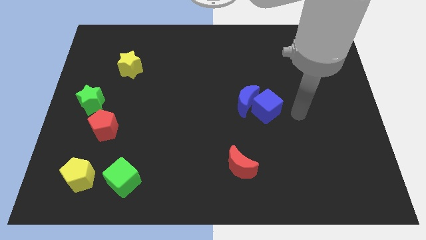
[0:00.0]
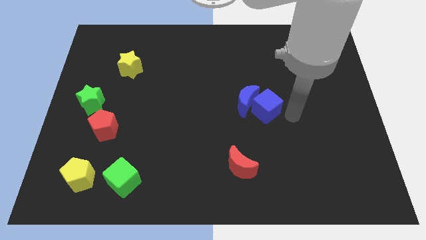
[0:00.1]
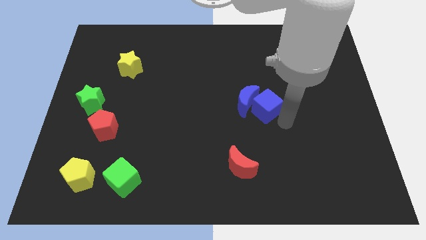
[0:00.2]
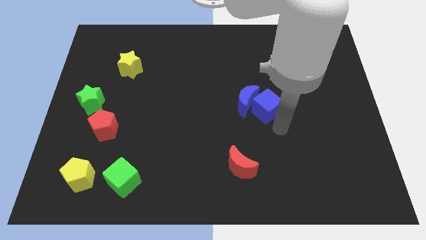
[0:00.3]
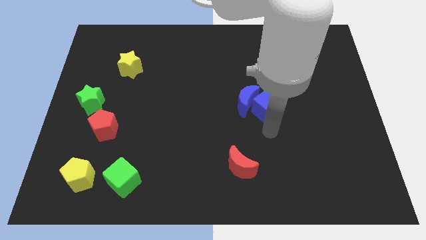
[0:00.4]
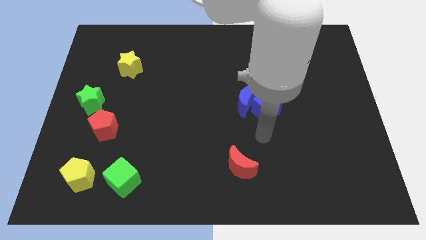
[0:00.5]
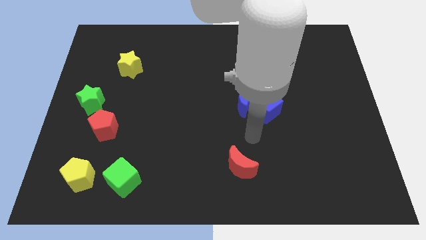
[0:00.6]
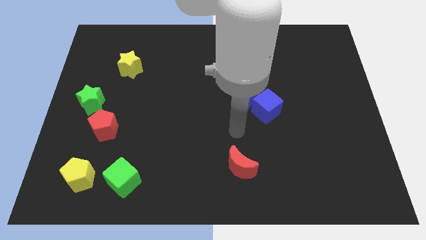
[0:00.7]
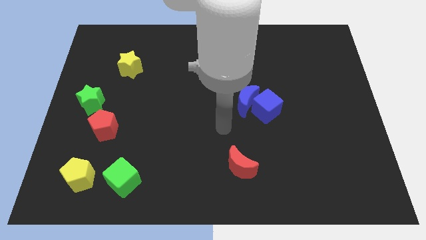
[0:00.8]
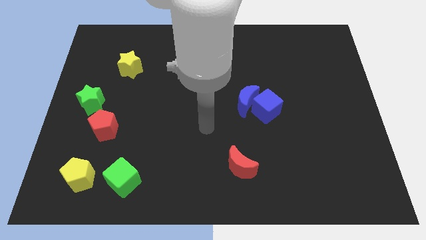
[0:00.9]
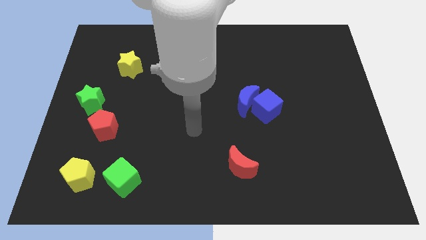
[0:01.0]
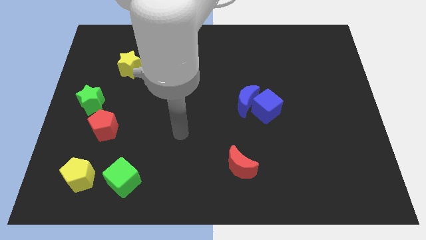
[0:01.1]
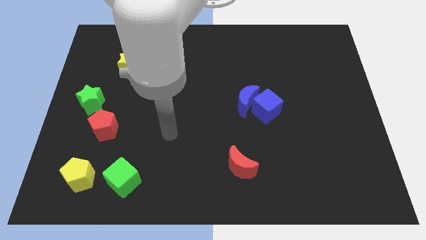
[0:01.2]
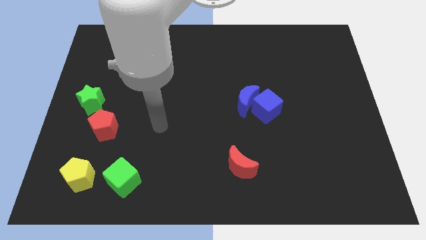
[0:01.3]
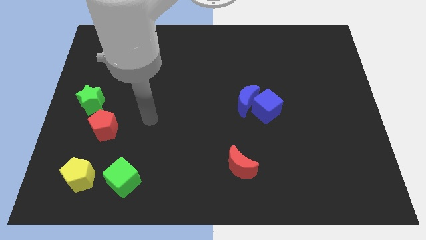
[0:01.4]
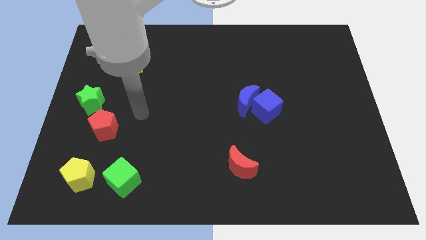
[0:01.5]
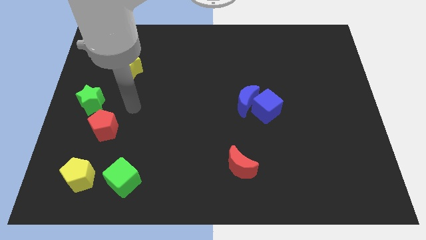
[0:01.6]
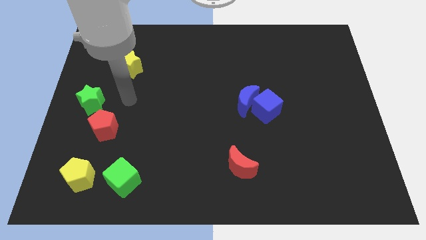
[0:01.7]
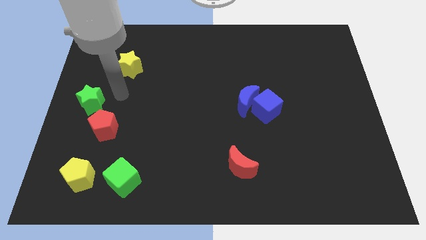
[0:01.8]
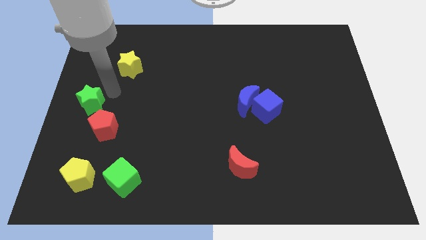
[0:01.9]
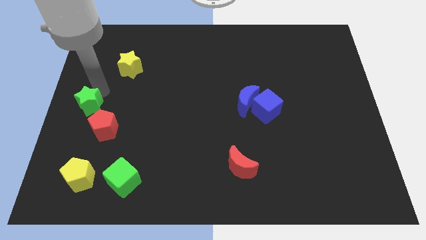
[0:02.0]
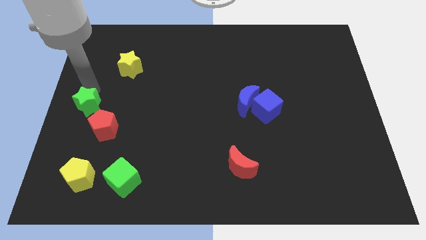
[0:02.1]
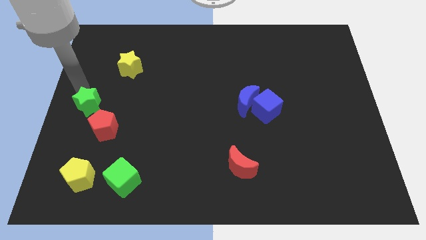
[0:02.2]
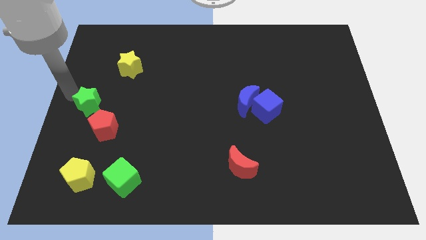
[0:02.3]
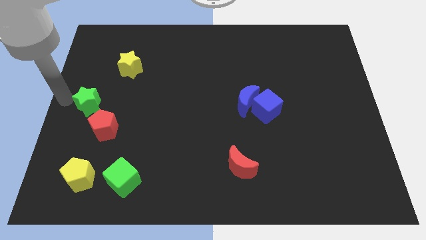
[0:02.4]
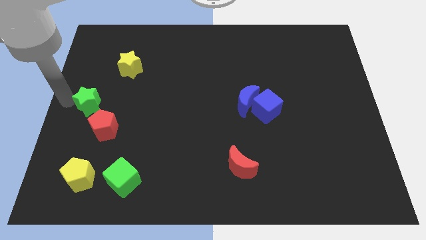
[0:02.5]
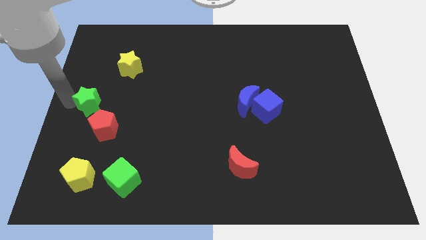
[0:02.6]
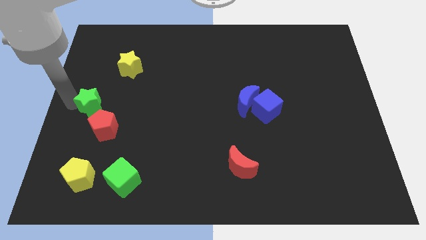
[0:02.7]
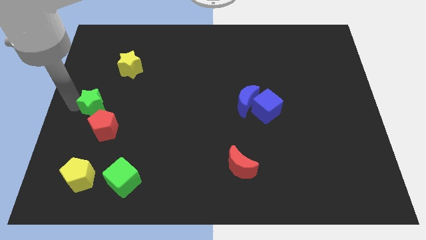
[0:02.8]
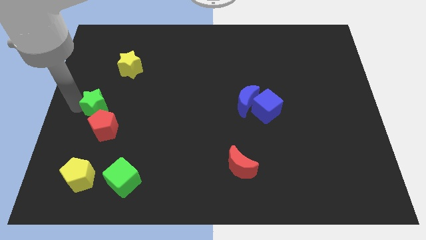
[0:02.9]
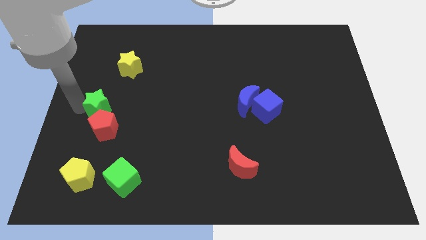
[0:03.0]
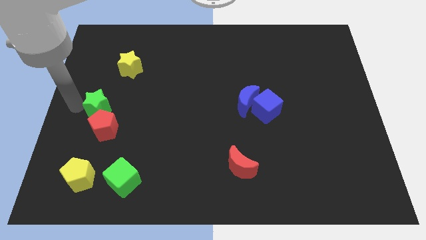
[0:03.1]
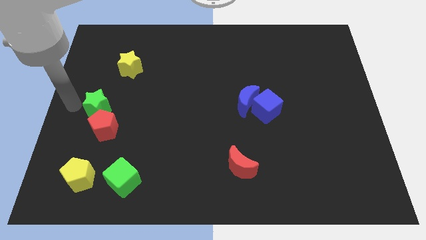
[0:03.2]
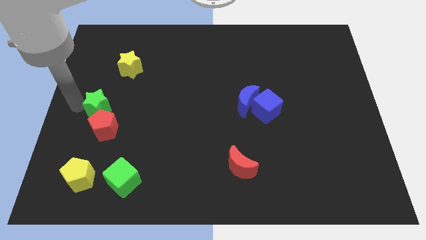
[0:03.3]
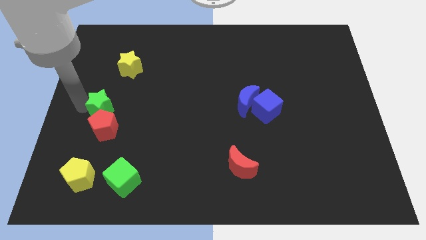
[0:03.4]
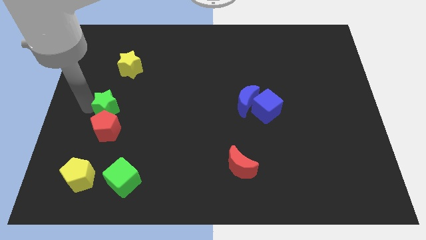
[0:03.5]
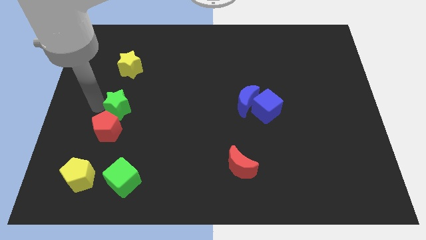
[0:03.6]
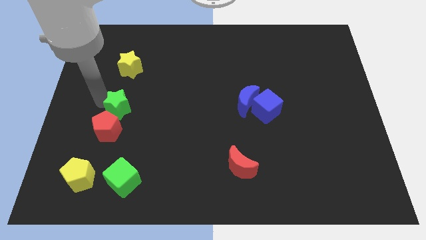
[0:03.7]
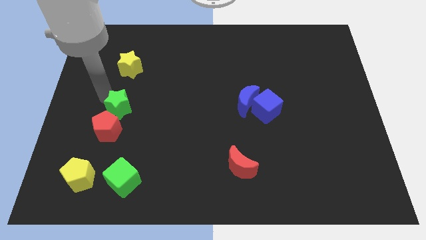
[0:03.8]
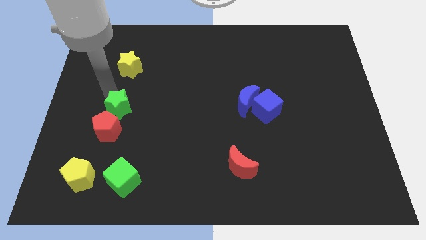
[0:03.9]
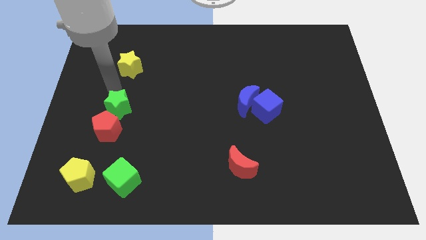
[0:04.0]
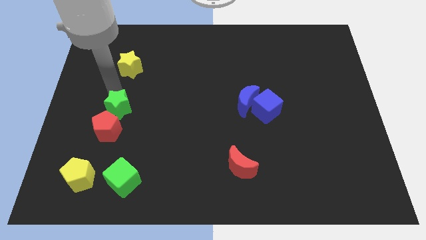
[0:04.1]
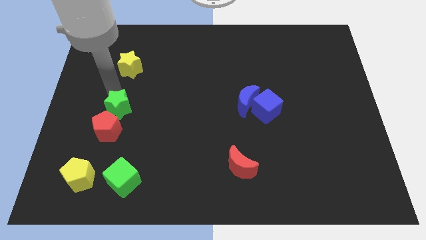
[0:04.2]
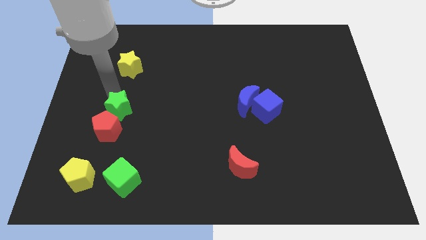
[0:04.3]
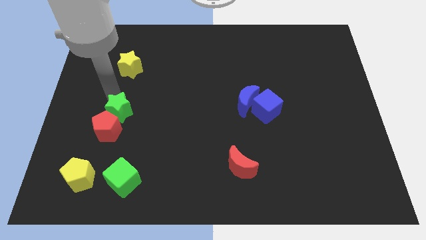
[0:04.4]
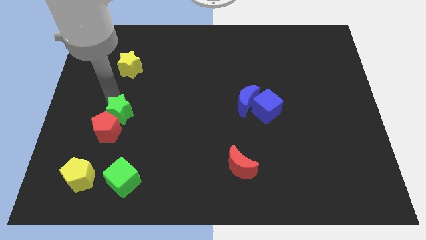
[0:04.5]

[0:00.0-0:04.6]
push the green star somewhat downwards and right diagonally

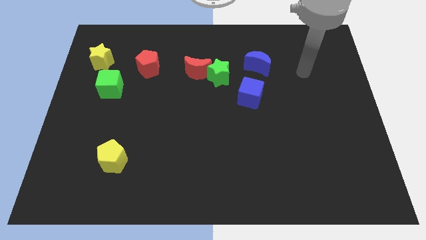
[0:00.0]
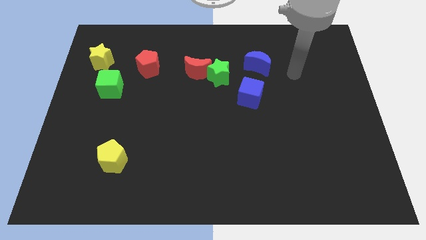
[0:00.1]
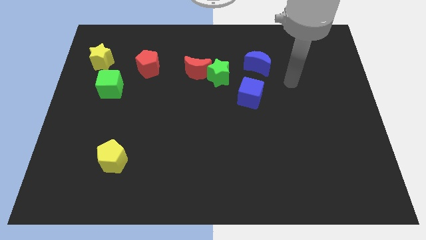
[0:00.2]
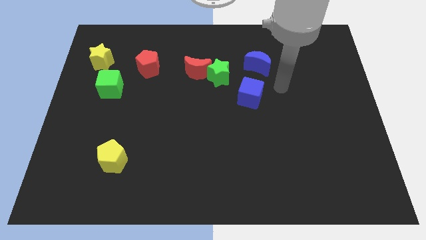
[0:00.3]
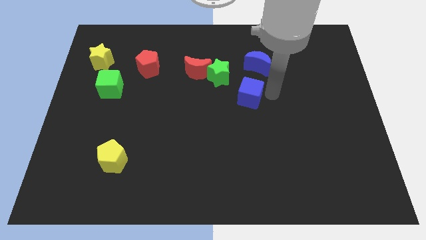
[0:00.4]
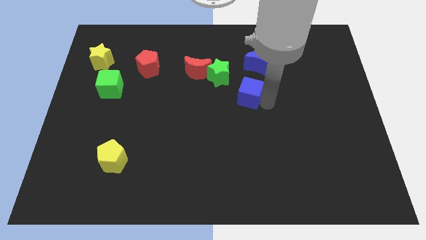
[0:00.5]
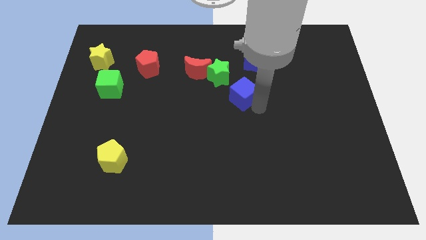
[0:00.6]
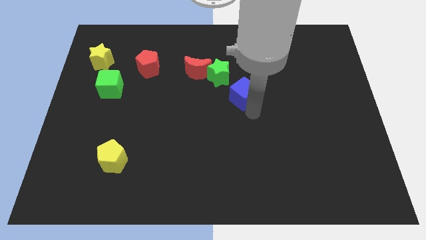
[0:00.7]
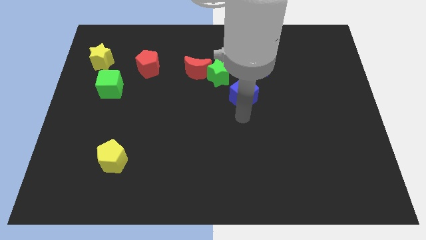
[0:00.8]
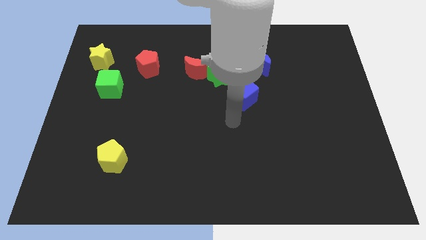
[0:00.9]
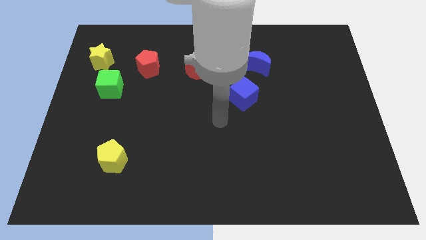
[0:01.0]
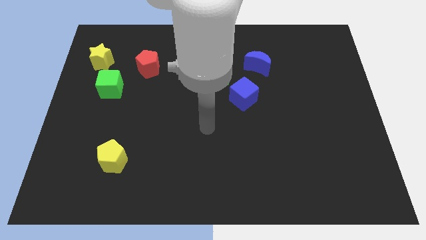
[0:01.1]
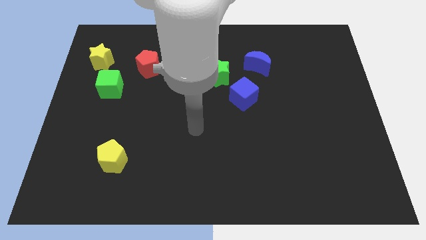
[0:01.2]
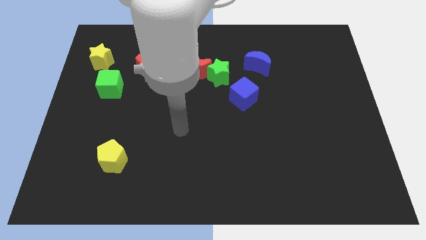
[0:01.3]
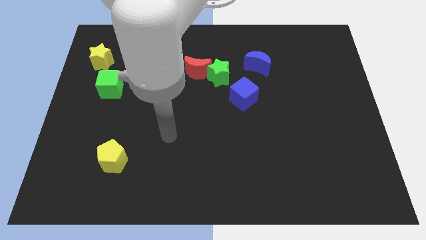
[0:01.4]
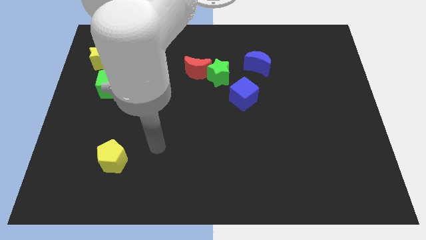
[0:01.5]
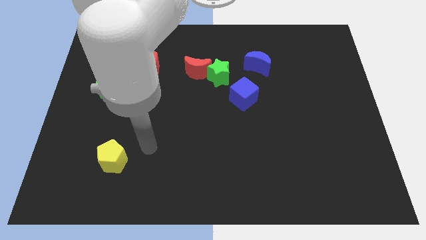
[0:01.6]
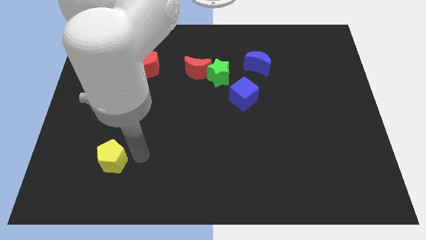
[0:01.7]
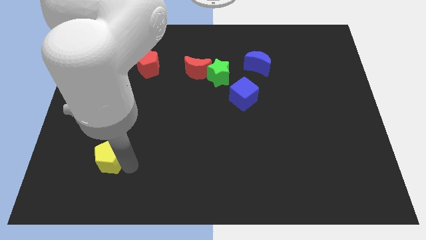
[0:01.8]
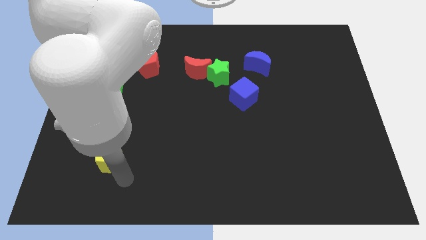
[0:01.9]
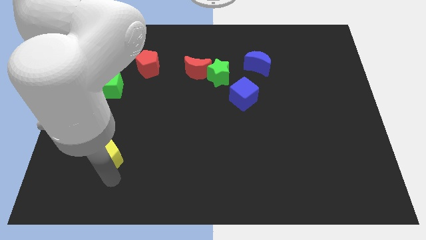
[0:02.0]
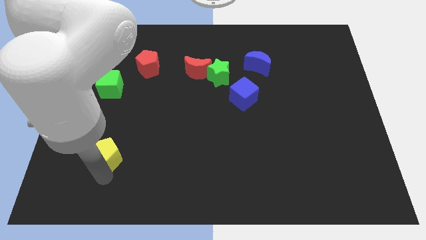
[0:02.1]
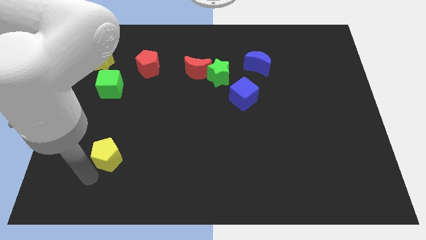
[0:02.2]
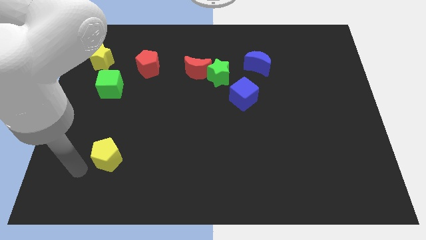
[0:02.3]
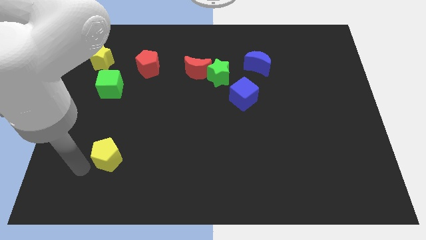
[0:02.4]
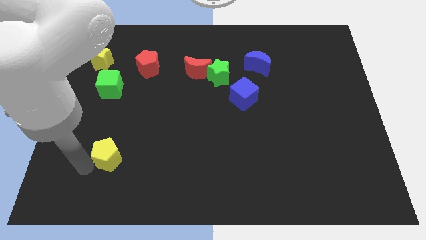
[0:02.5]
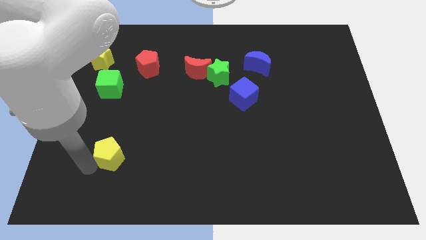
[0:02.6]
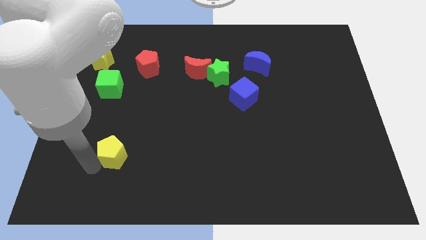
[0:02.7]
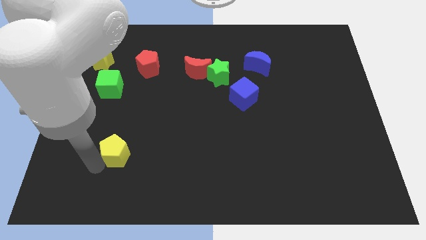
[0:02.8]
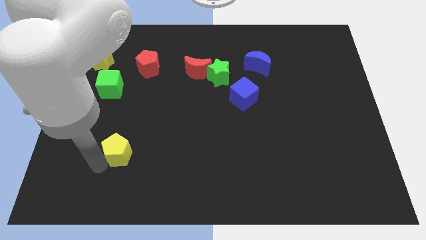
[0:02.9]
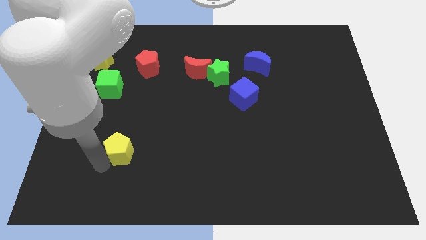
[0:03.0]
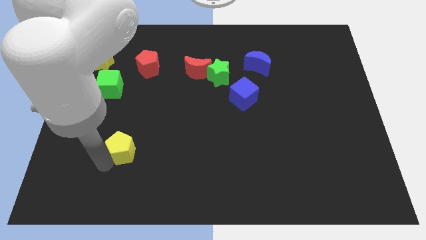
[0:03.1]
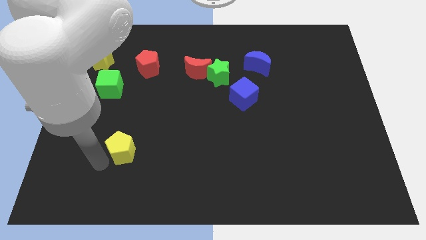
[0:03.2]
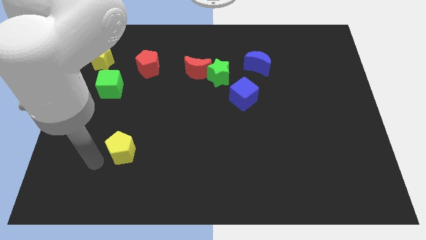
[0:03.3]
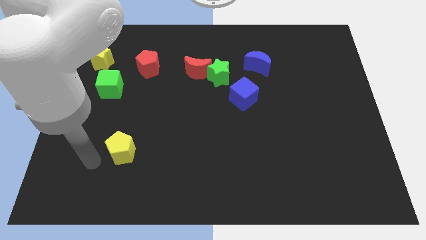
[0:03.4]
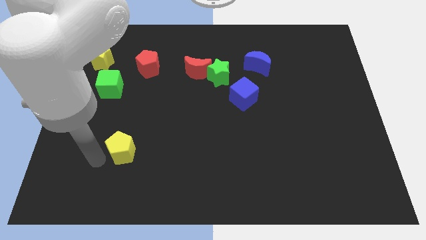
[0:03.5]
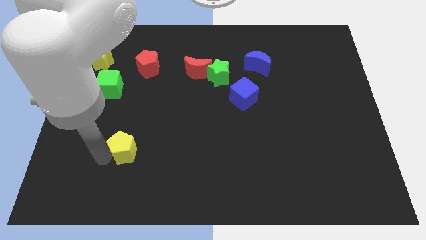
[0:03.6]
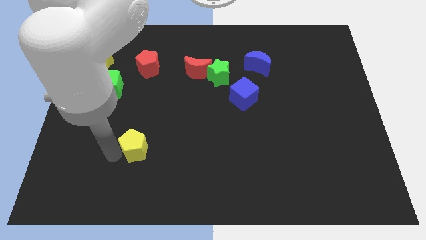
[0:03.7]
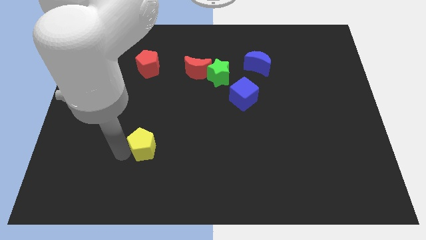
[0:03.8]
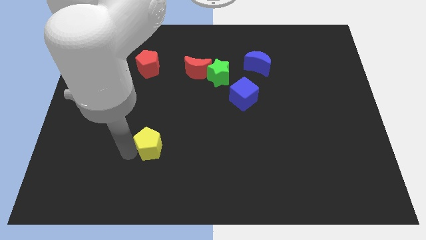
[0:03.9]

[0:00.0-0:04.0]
slide the yellow pentagon up and then right a little
